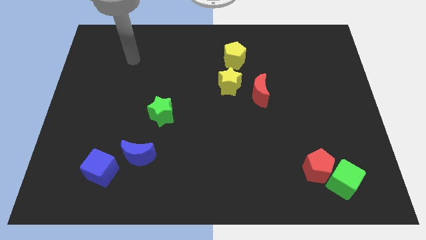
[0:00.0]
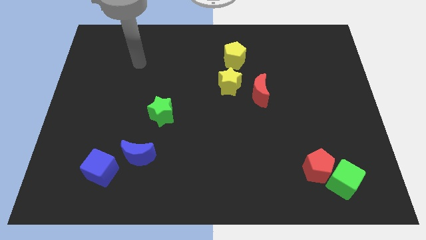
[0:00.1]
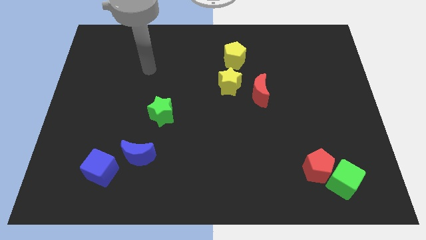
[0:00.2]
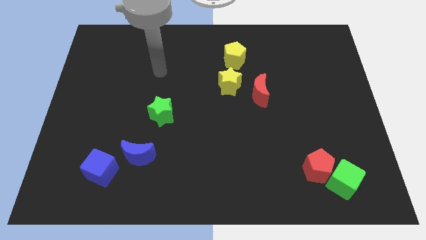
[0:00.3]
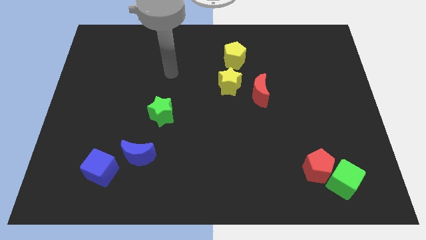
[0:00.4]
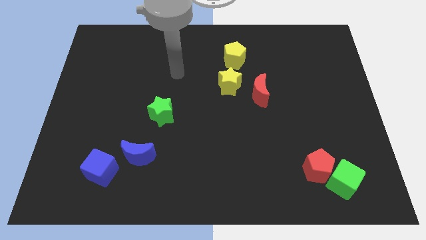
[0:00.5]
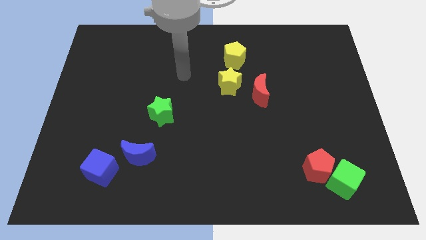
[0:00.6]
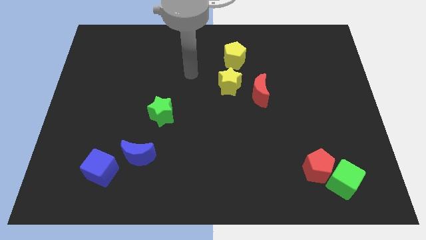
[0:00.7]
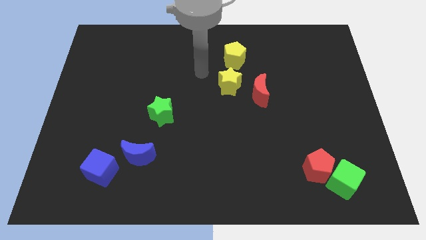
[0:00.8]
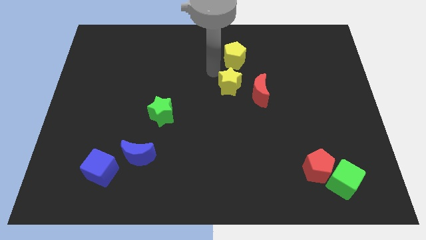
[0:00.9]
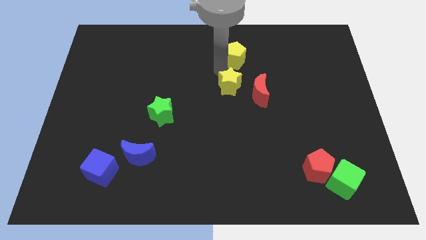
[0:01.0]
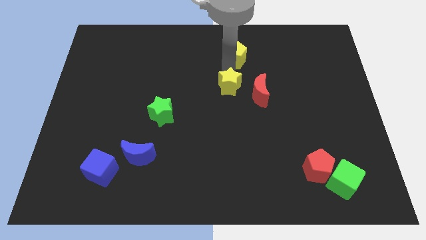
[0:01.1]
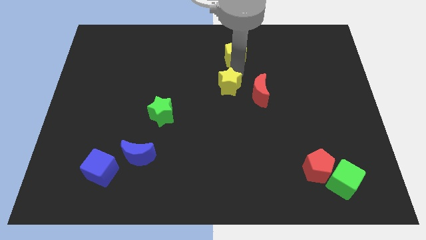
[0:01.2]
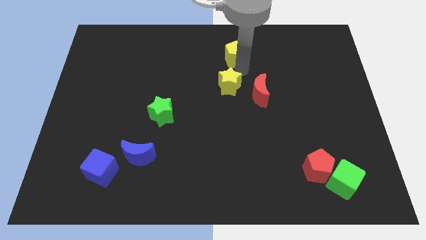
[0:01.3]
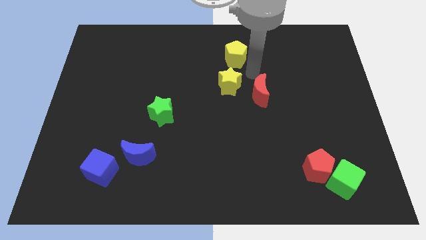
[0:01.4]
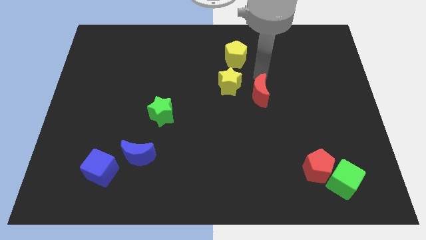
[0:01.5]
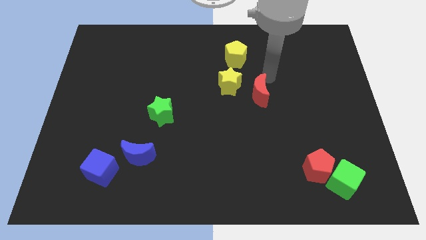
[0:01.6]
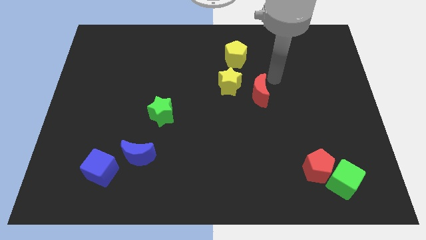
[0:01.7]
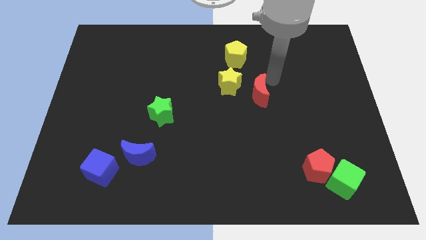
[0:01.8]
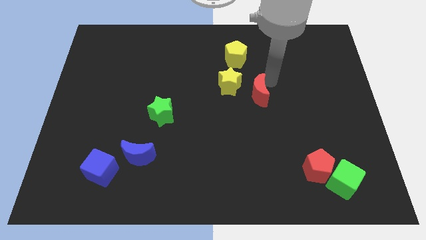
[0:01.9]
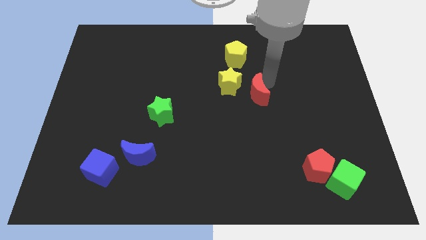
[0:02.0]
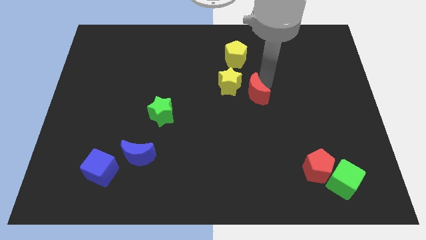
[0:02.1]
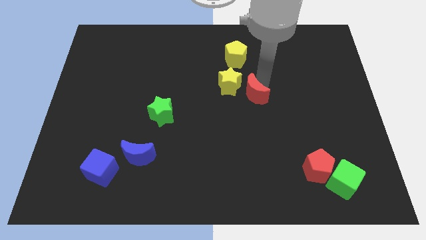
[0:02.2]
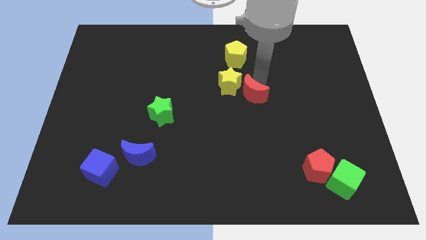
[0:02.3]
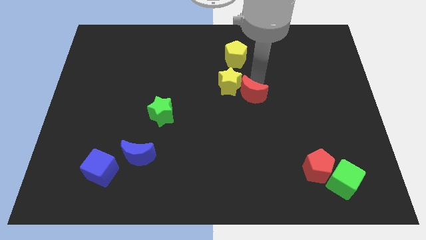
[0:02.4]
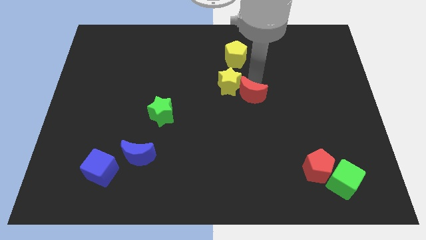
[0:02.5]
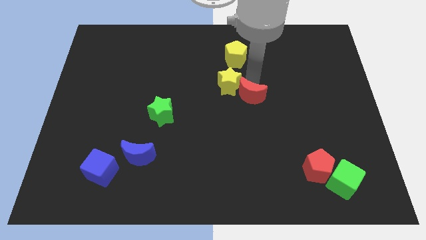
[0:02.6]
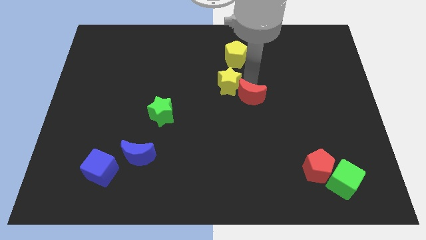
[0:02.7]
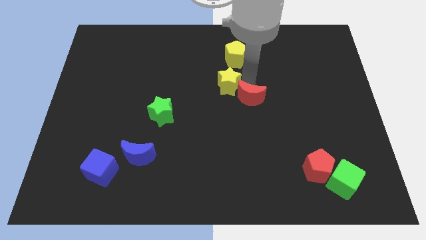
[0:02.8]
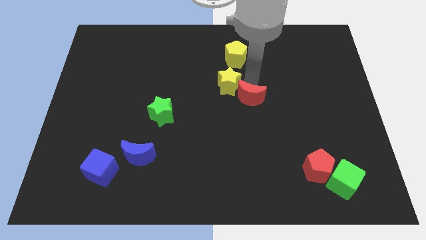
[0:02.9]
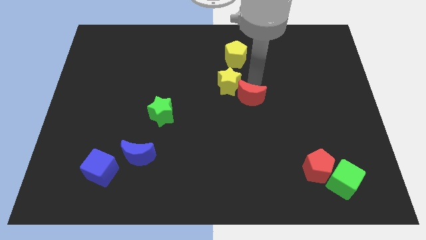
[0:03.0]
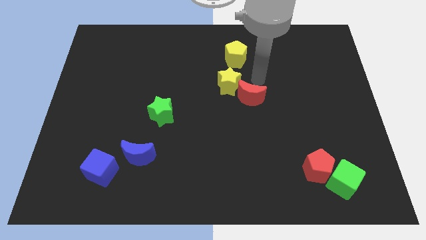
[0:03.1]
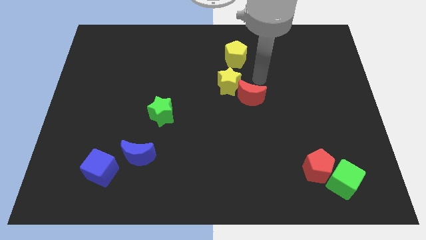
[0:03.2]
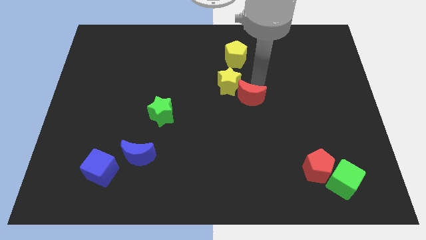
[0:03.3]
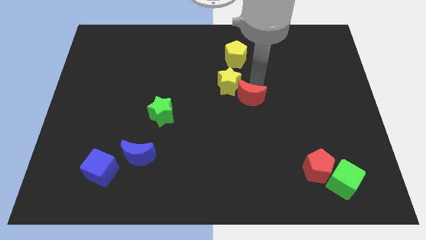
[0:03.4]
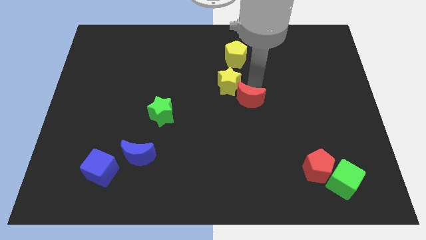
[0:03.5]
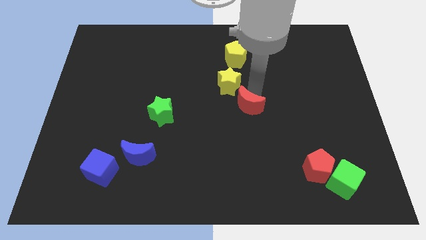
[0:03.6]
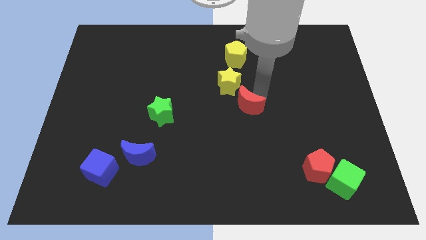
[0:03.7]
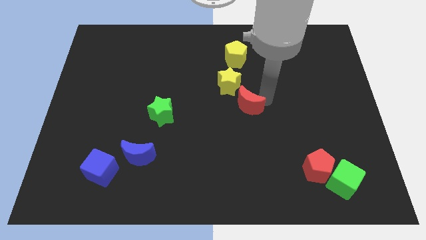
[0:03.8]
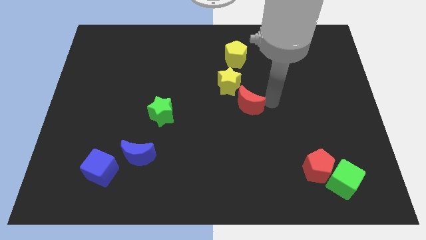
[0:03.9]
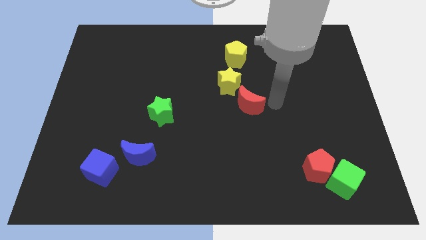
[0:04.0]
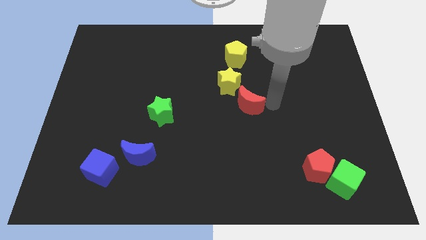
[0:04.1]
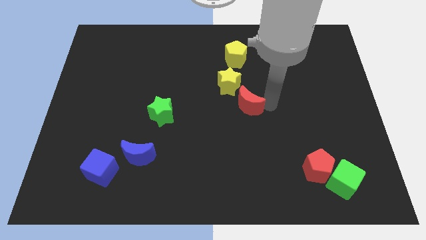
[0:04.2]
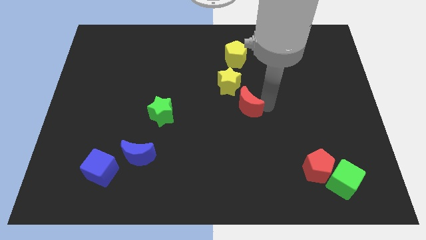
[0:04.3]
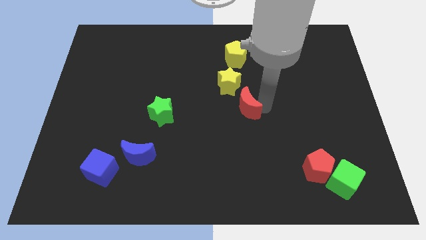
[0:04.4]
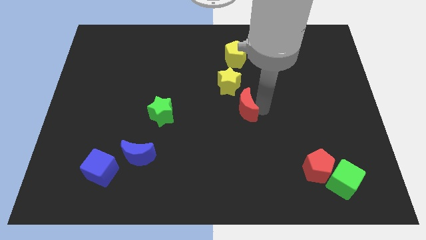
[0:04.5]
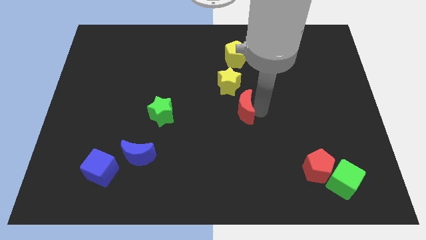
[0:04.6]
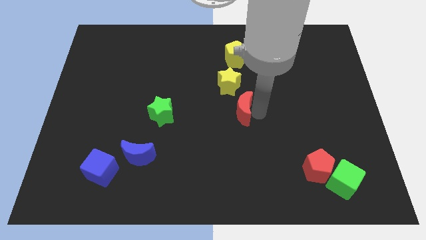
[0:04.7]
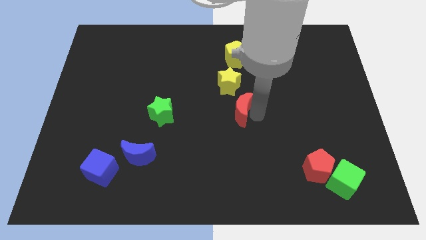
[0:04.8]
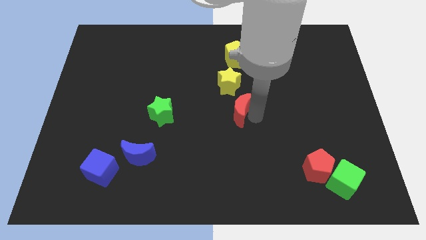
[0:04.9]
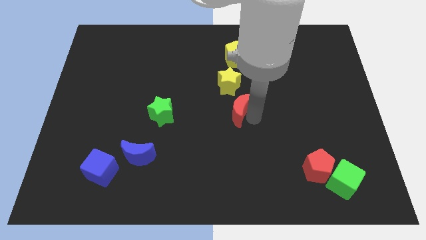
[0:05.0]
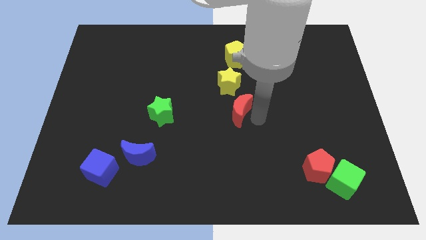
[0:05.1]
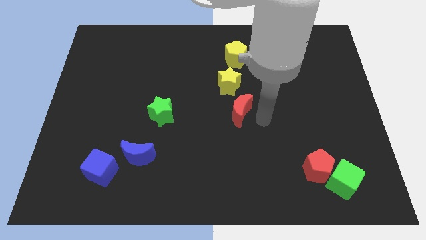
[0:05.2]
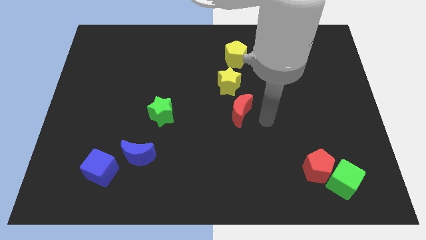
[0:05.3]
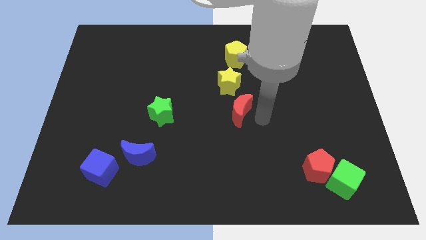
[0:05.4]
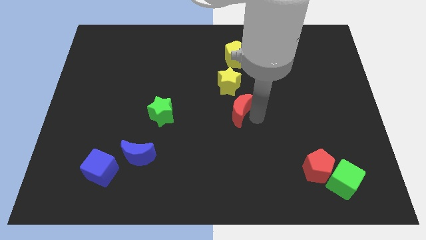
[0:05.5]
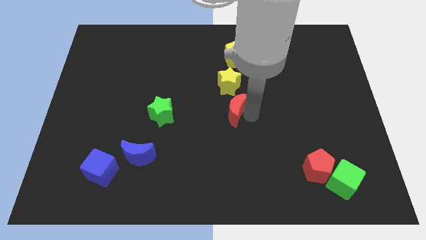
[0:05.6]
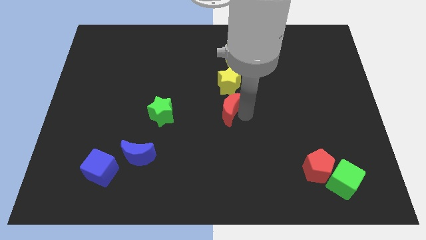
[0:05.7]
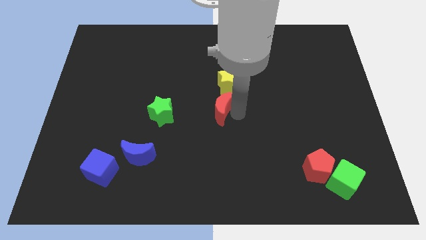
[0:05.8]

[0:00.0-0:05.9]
move the red moon diagonally down and to the left of the yellow star

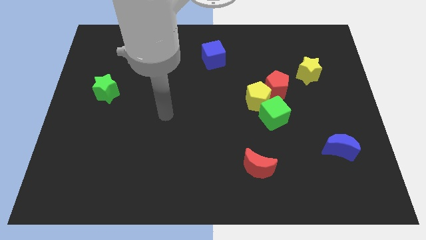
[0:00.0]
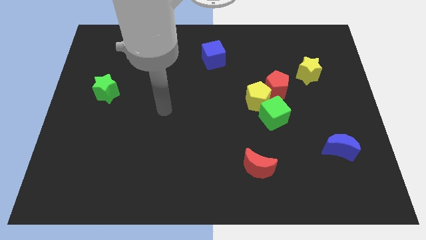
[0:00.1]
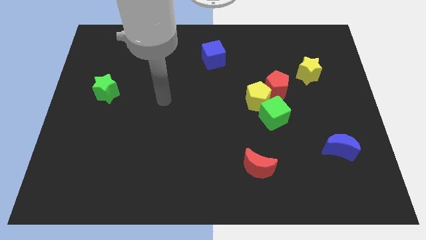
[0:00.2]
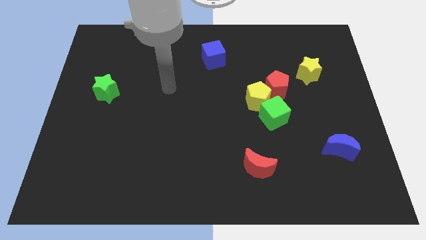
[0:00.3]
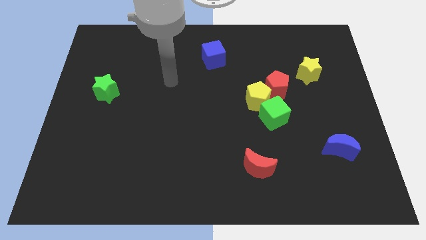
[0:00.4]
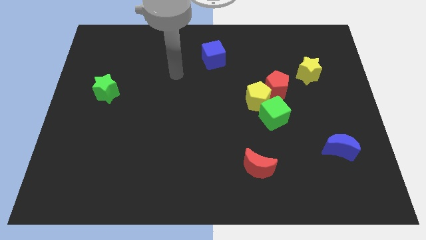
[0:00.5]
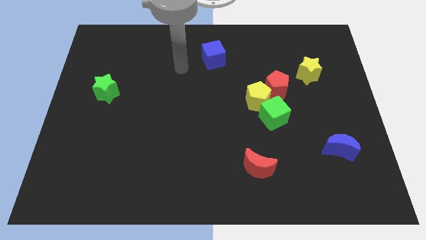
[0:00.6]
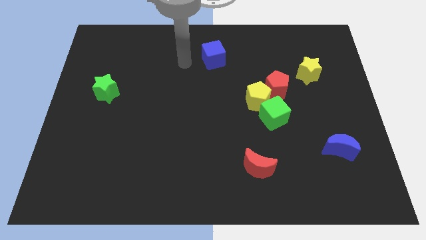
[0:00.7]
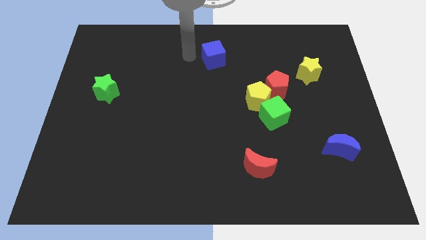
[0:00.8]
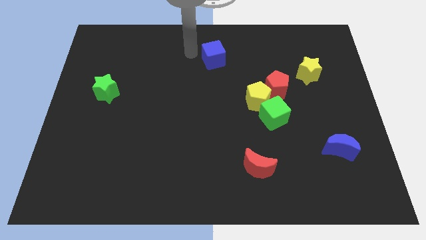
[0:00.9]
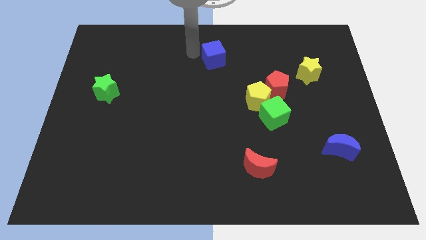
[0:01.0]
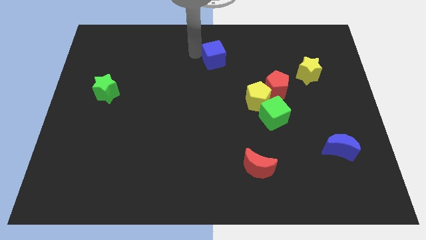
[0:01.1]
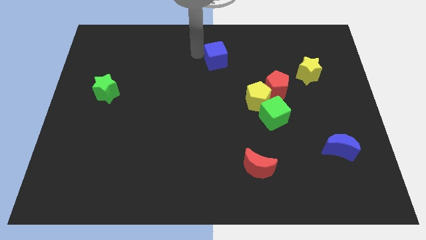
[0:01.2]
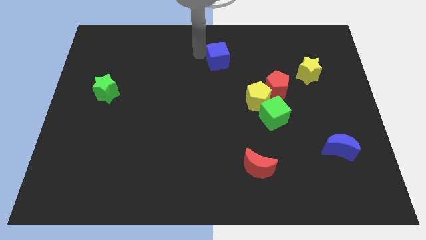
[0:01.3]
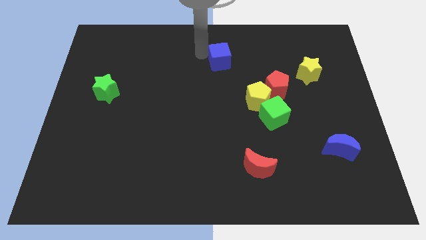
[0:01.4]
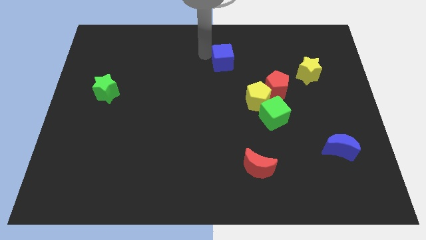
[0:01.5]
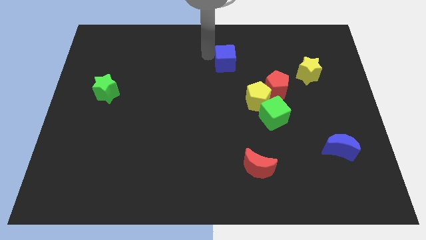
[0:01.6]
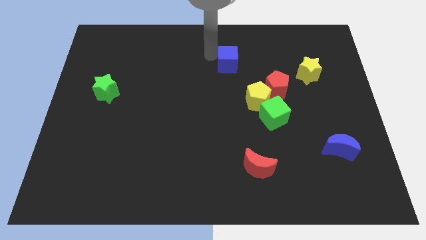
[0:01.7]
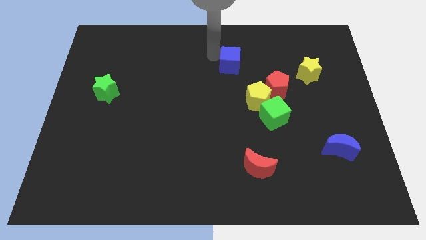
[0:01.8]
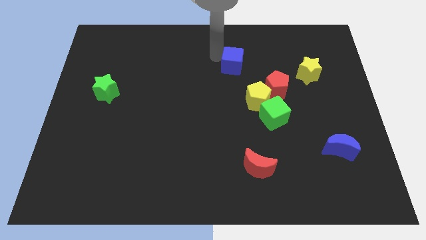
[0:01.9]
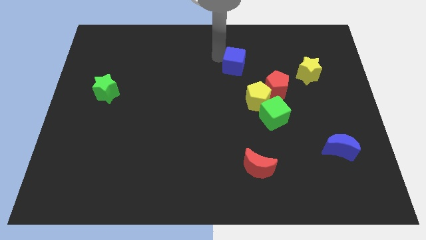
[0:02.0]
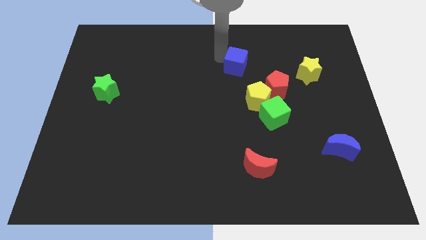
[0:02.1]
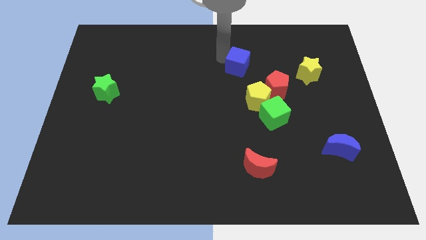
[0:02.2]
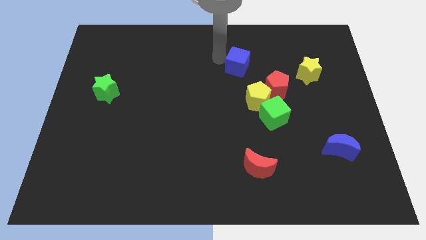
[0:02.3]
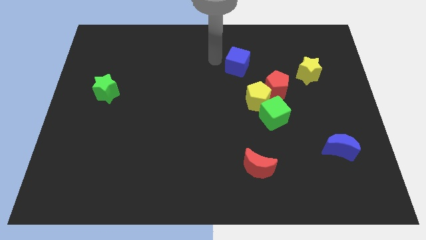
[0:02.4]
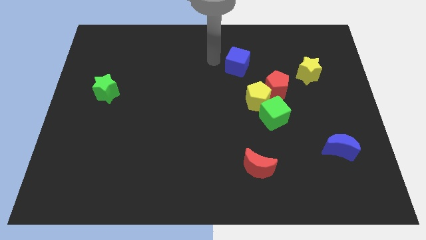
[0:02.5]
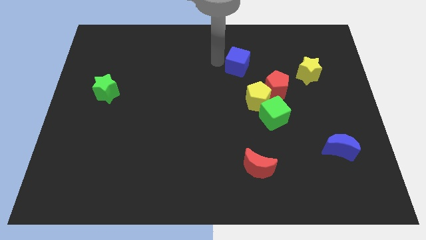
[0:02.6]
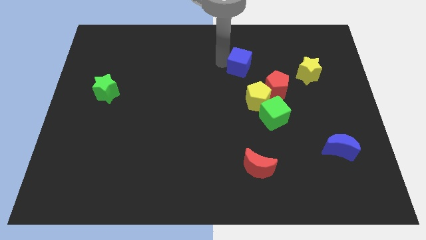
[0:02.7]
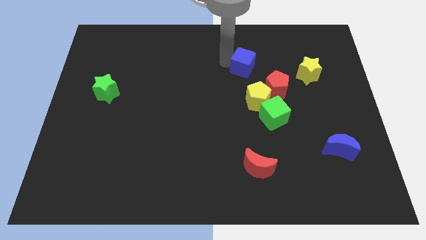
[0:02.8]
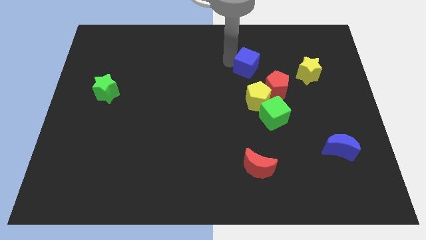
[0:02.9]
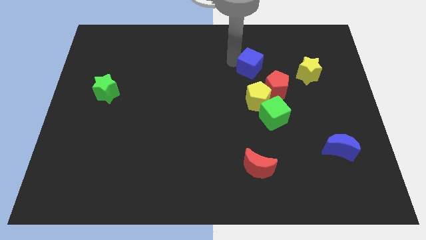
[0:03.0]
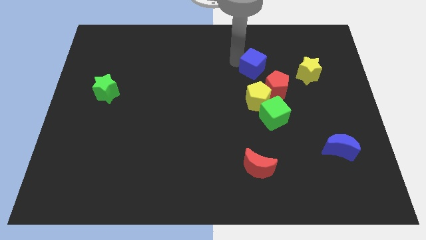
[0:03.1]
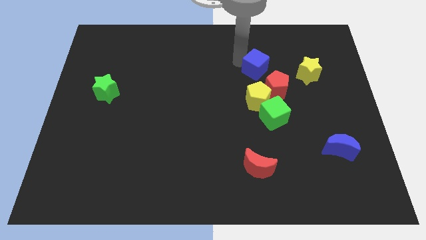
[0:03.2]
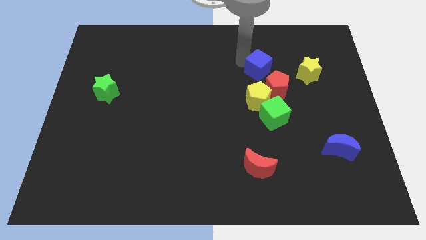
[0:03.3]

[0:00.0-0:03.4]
slide the blue cube above the green cube
